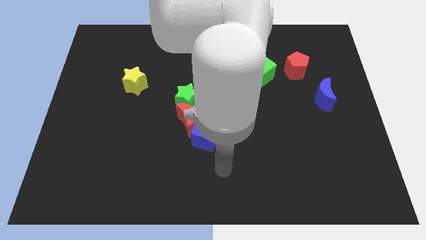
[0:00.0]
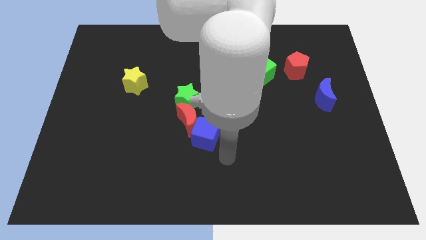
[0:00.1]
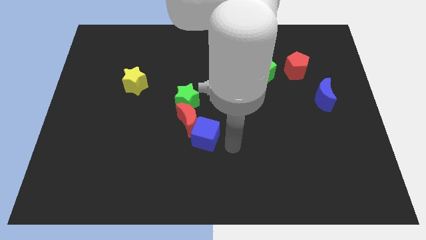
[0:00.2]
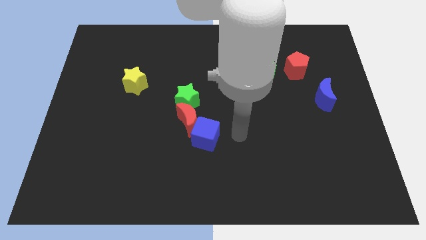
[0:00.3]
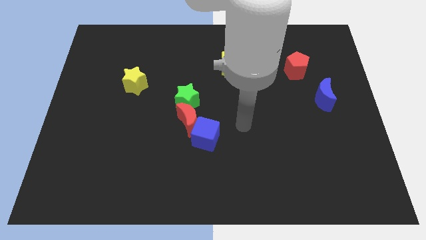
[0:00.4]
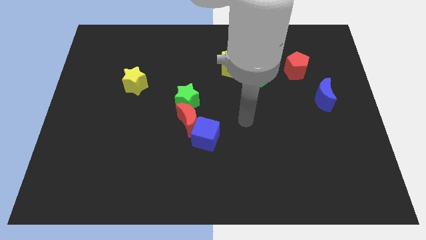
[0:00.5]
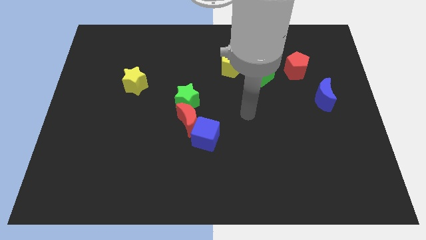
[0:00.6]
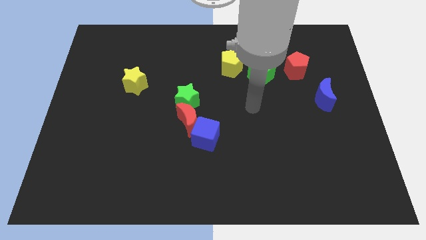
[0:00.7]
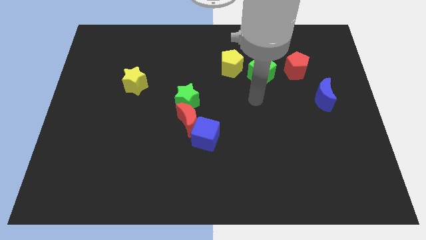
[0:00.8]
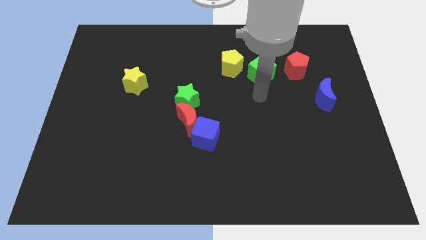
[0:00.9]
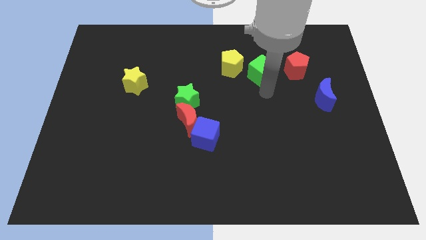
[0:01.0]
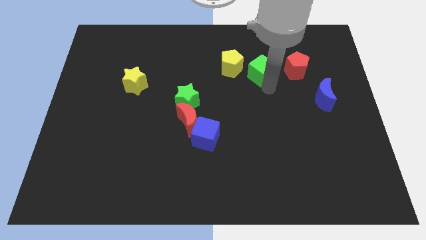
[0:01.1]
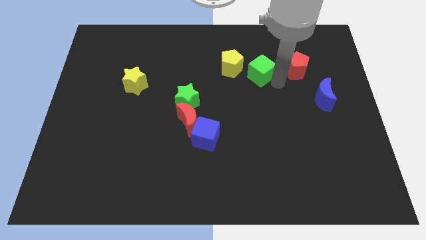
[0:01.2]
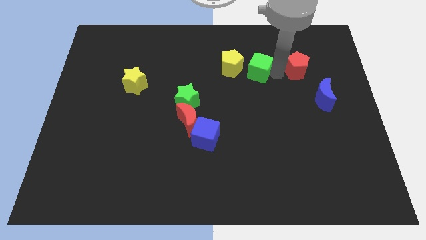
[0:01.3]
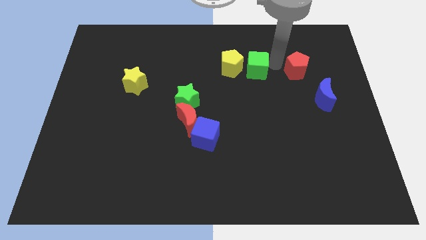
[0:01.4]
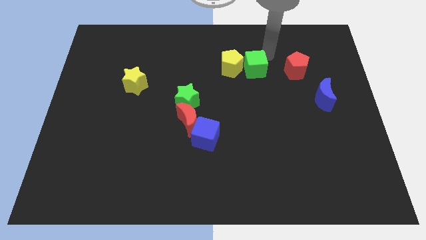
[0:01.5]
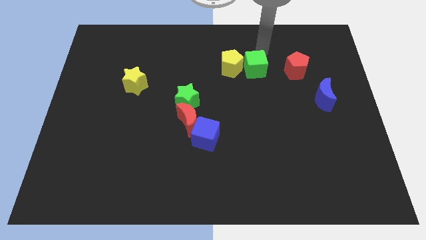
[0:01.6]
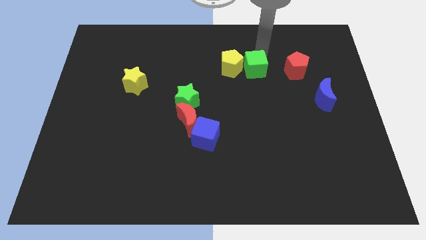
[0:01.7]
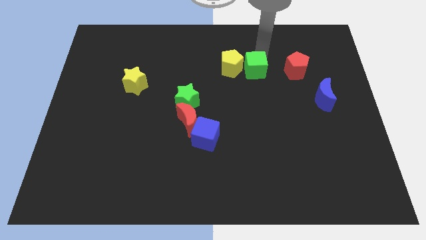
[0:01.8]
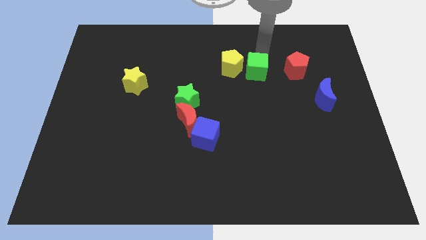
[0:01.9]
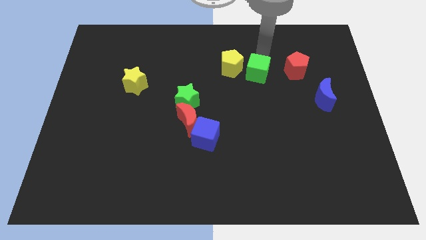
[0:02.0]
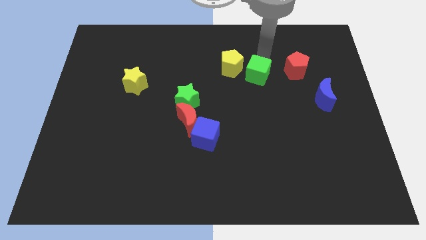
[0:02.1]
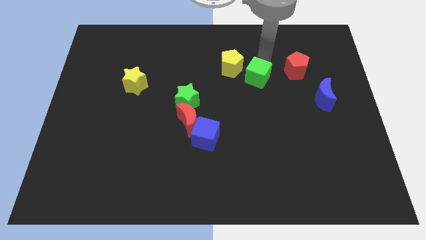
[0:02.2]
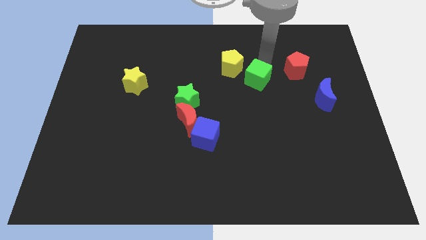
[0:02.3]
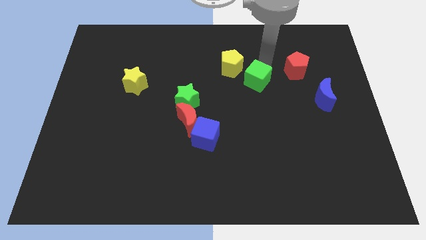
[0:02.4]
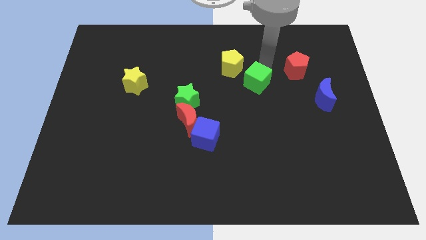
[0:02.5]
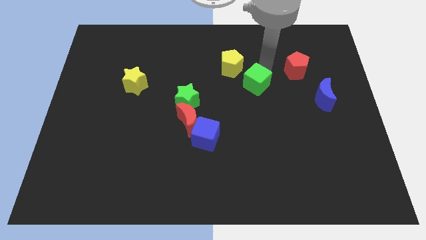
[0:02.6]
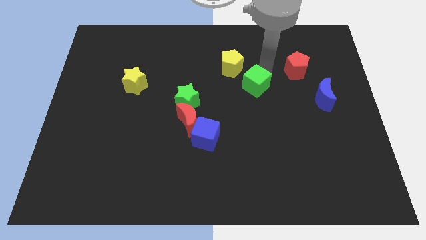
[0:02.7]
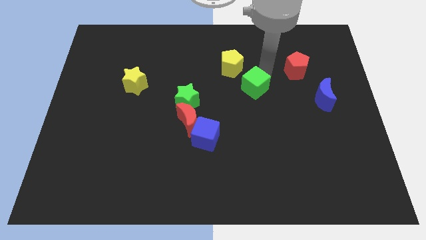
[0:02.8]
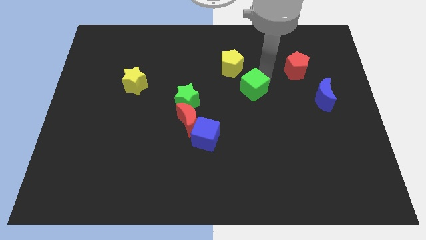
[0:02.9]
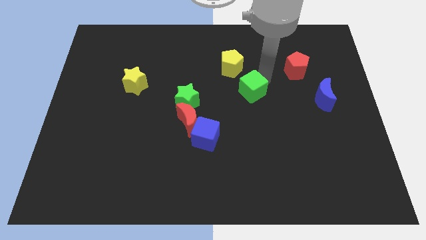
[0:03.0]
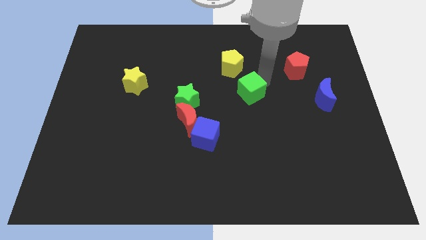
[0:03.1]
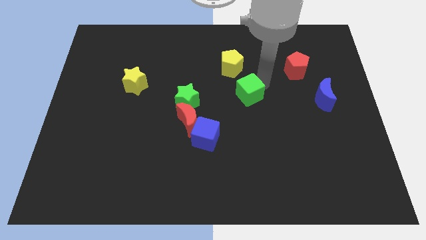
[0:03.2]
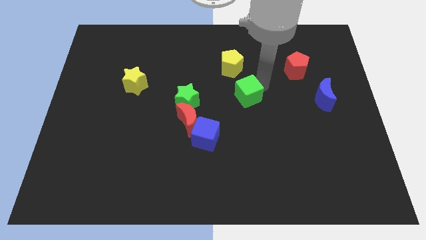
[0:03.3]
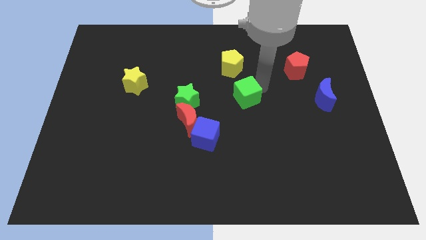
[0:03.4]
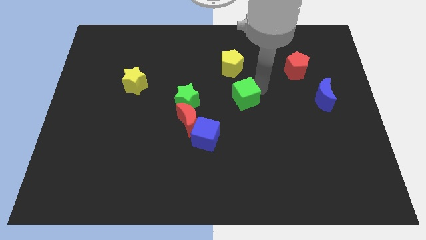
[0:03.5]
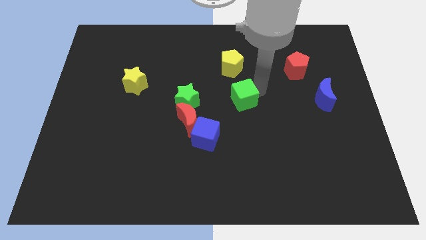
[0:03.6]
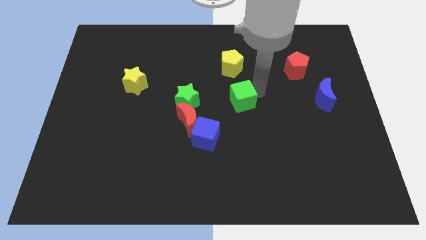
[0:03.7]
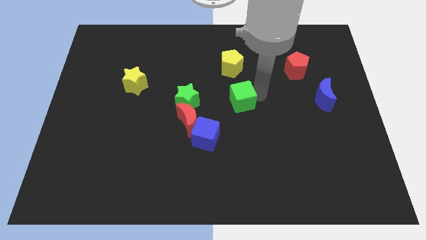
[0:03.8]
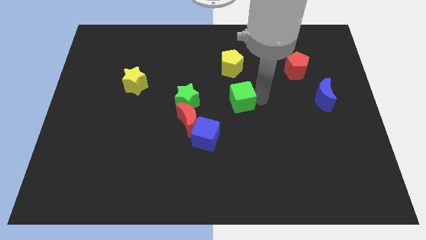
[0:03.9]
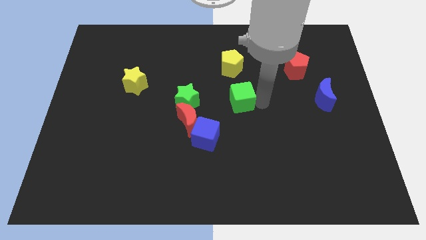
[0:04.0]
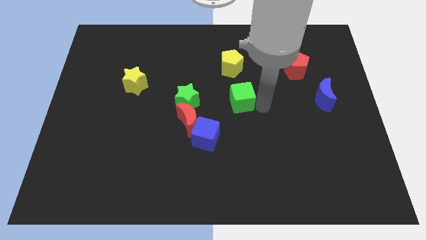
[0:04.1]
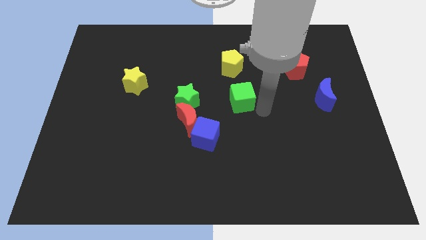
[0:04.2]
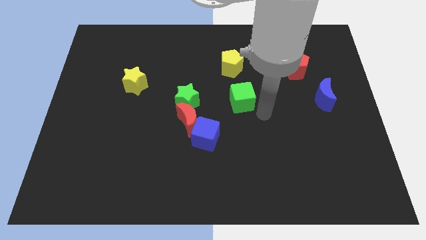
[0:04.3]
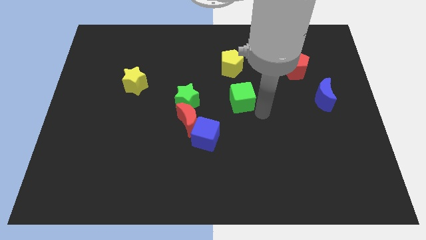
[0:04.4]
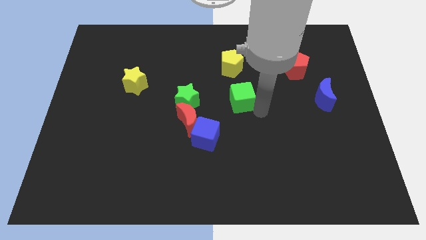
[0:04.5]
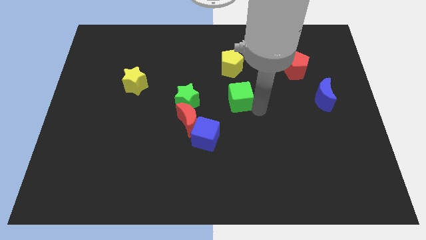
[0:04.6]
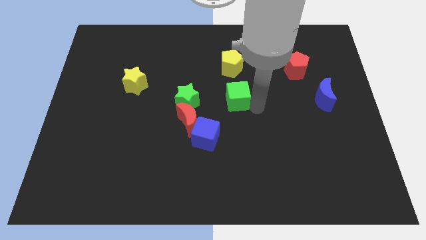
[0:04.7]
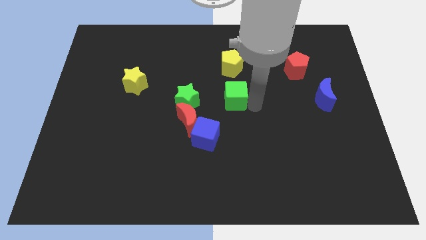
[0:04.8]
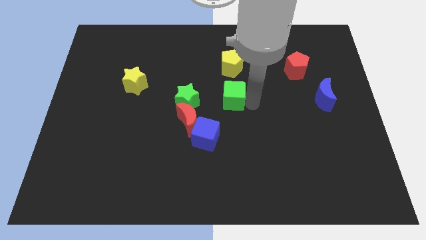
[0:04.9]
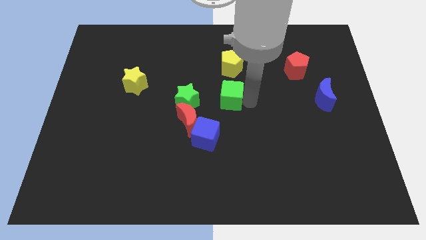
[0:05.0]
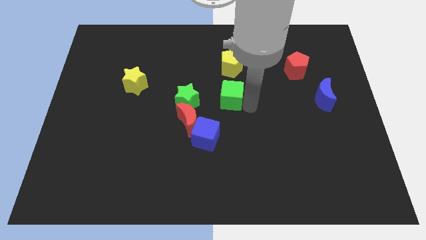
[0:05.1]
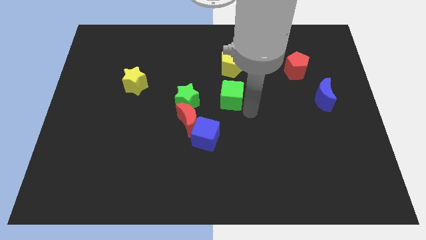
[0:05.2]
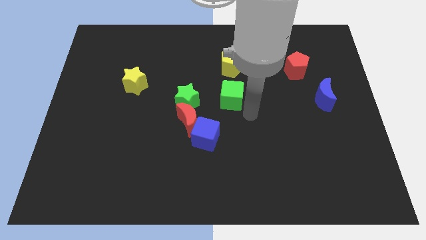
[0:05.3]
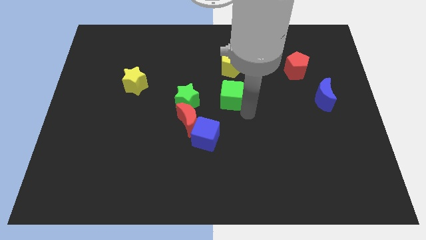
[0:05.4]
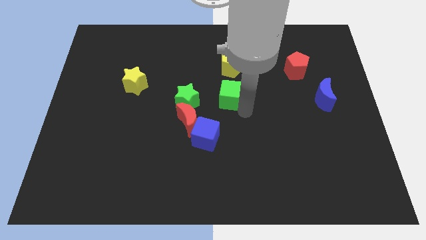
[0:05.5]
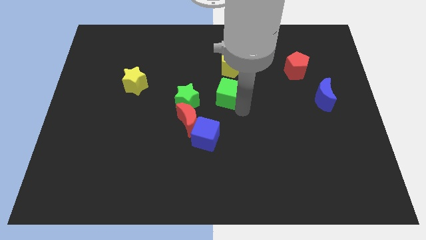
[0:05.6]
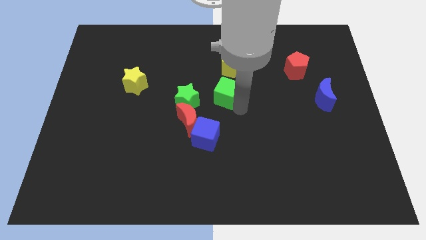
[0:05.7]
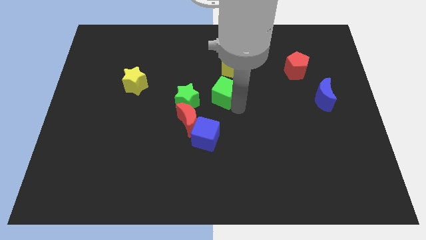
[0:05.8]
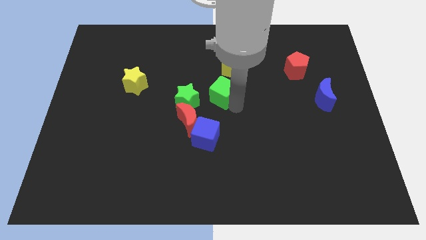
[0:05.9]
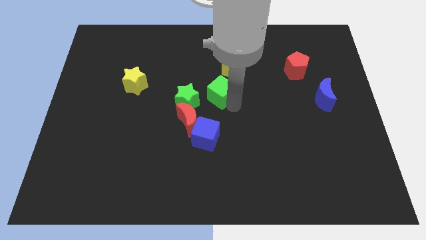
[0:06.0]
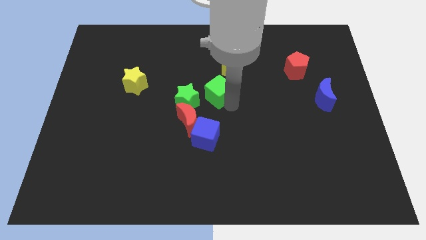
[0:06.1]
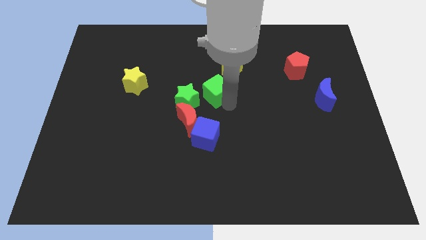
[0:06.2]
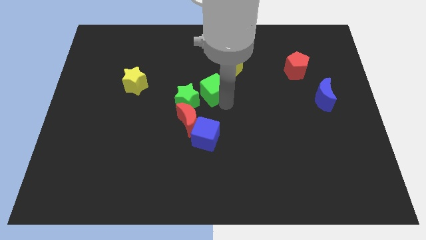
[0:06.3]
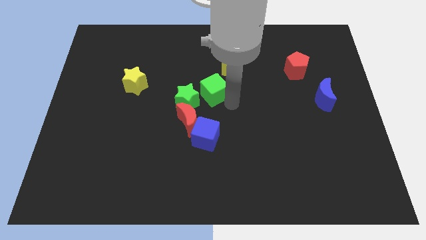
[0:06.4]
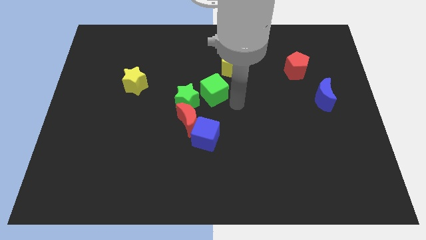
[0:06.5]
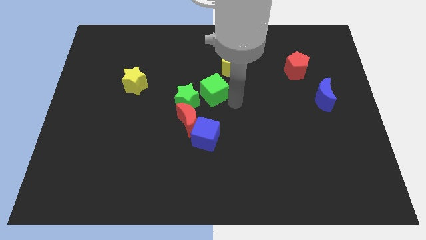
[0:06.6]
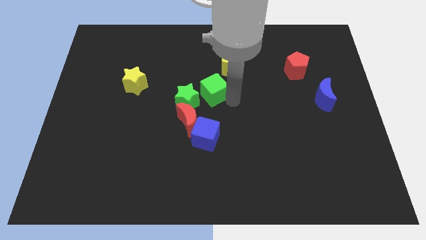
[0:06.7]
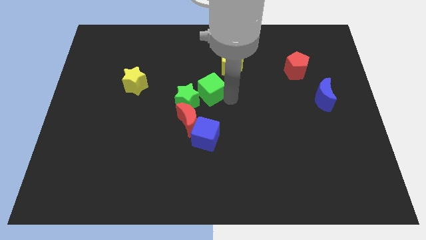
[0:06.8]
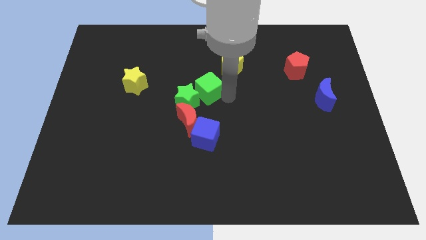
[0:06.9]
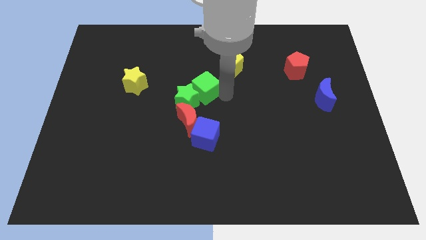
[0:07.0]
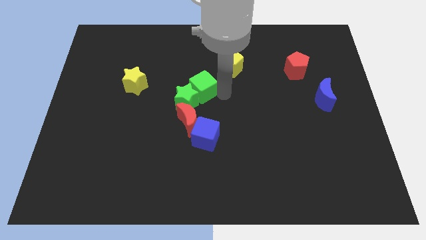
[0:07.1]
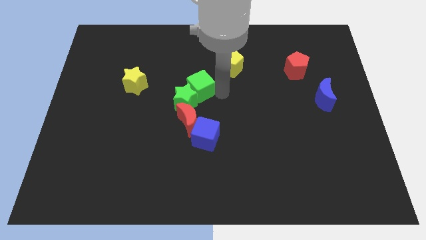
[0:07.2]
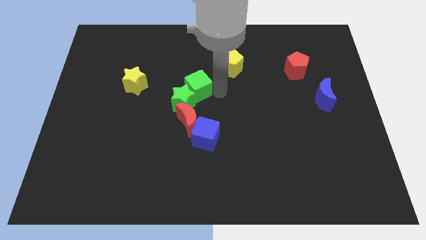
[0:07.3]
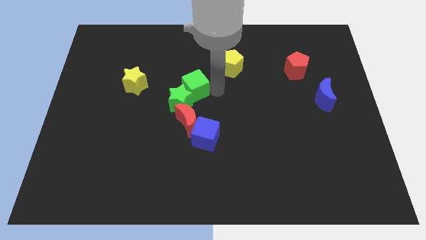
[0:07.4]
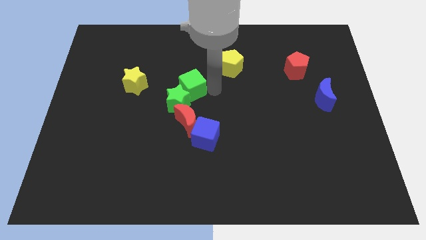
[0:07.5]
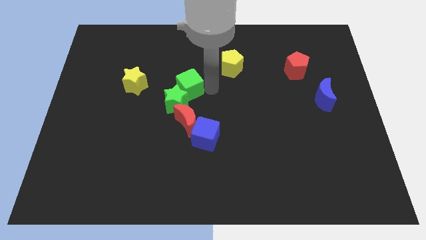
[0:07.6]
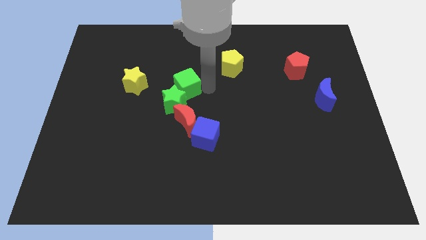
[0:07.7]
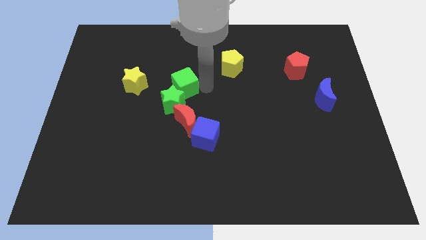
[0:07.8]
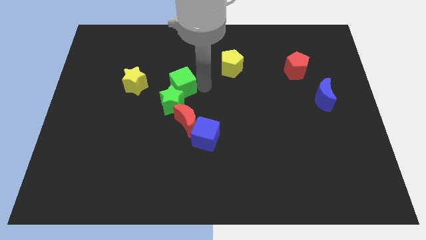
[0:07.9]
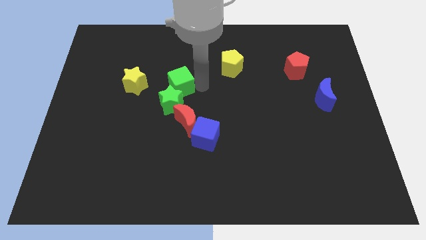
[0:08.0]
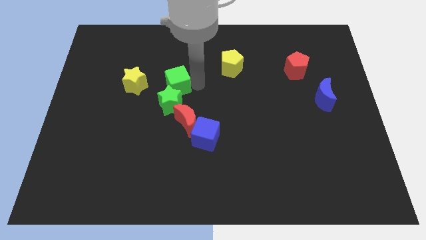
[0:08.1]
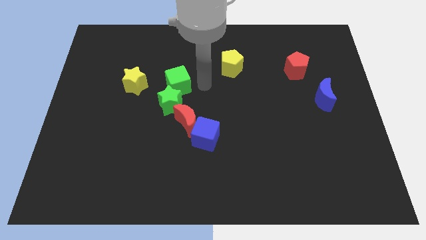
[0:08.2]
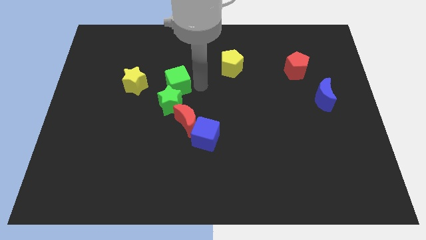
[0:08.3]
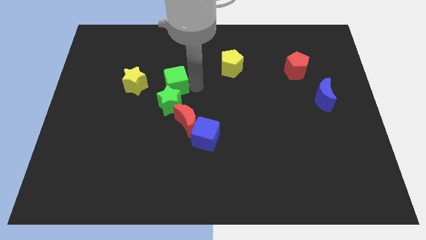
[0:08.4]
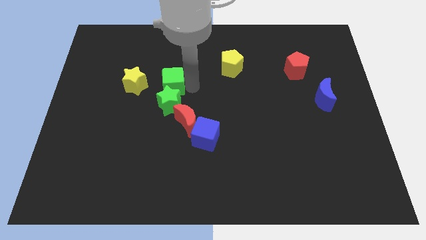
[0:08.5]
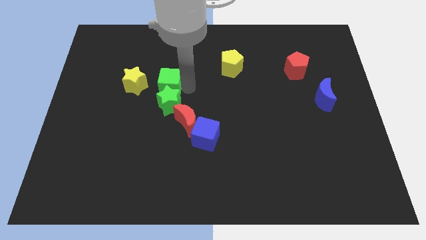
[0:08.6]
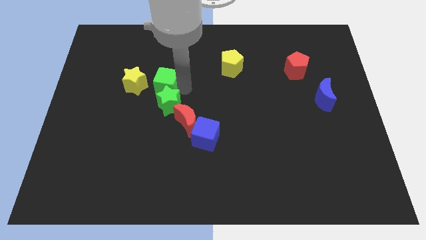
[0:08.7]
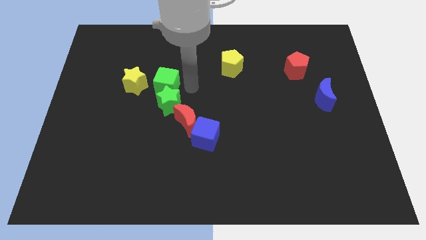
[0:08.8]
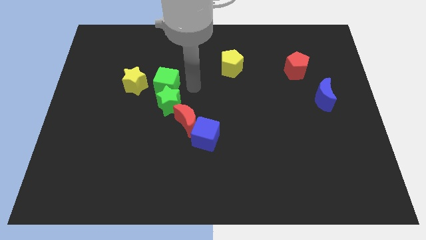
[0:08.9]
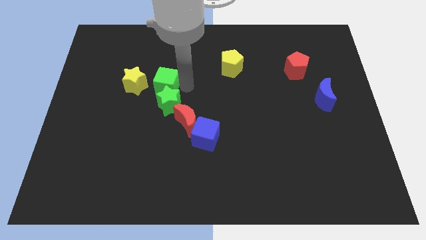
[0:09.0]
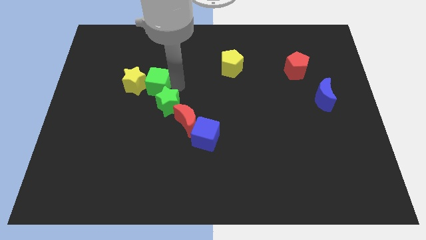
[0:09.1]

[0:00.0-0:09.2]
push the green cube to the yellow star
